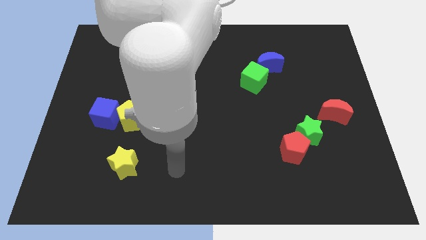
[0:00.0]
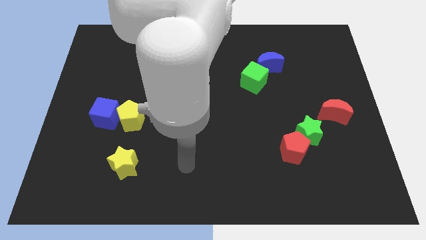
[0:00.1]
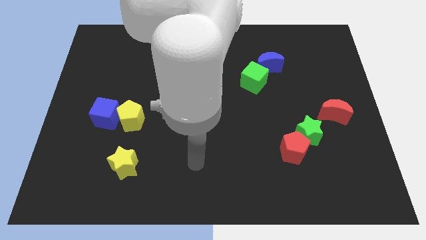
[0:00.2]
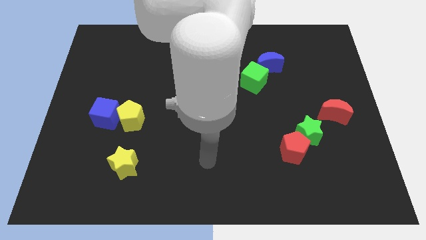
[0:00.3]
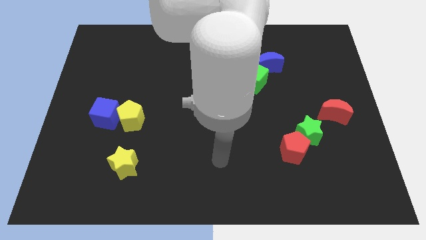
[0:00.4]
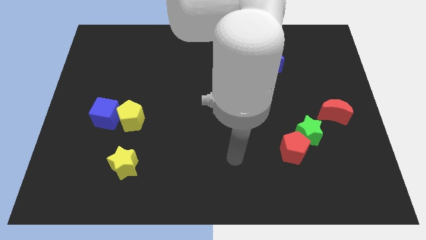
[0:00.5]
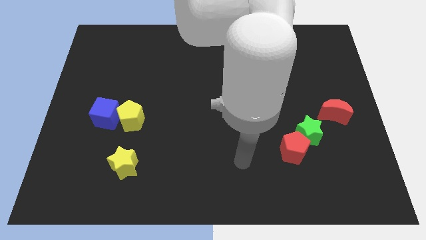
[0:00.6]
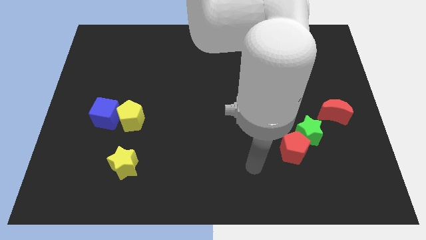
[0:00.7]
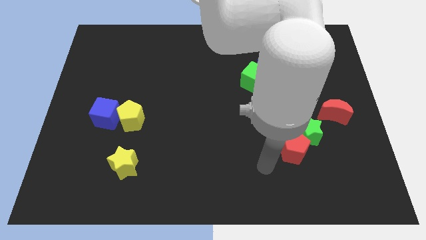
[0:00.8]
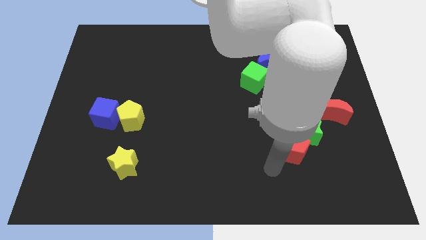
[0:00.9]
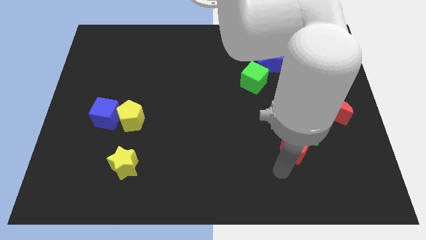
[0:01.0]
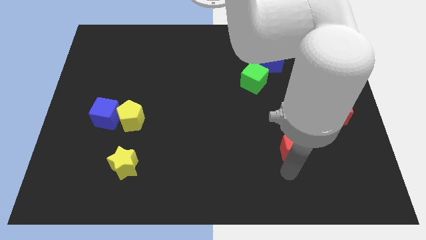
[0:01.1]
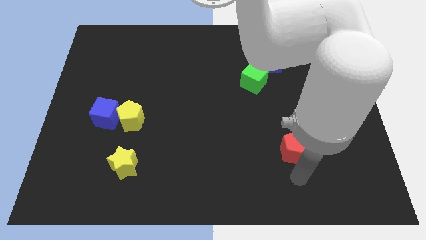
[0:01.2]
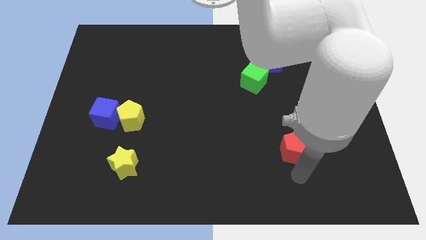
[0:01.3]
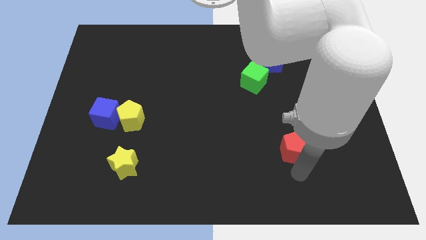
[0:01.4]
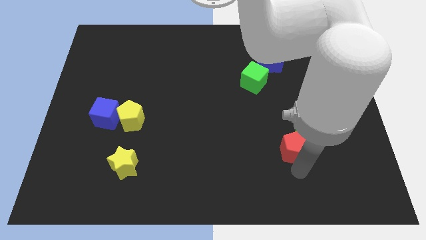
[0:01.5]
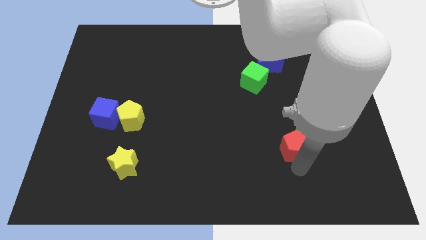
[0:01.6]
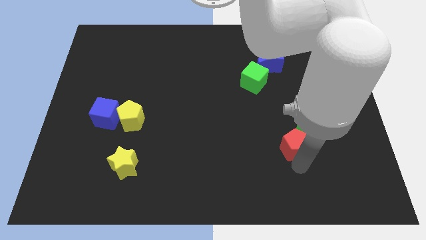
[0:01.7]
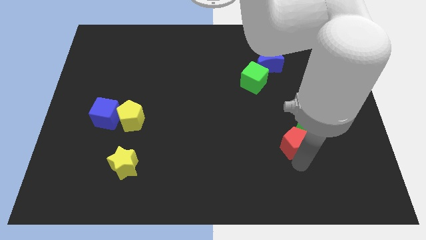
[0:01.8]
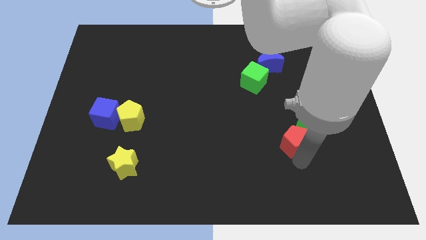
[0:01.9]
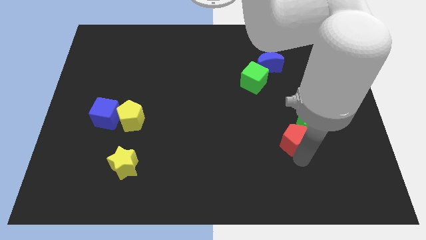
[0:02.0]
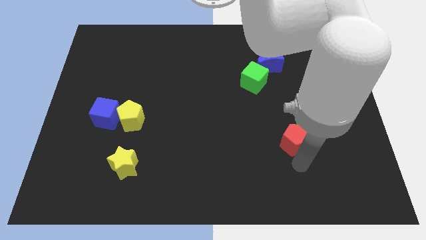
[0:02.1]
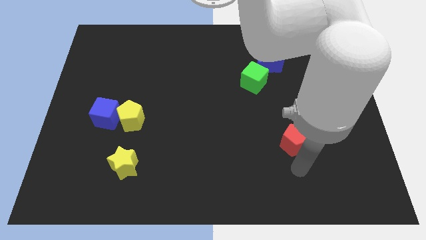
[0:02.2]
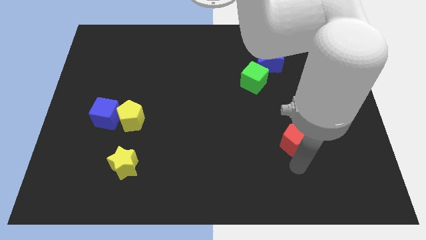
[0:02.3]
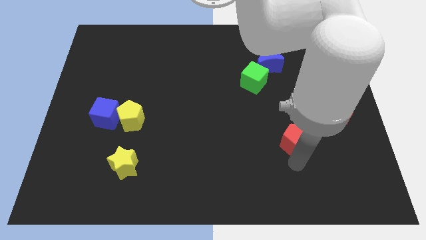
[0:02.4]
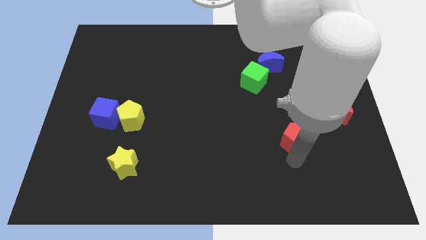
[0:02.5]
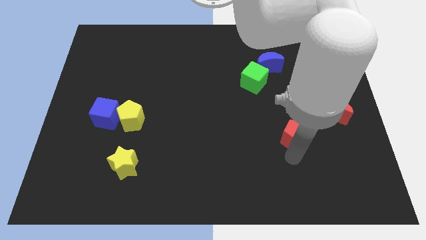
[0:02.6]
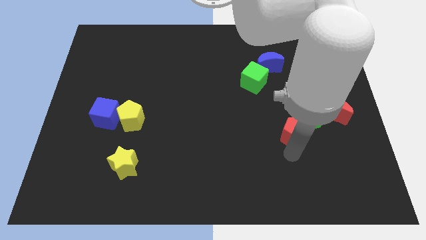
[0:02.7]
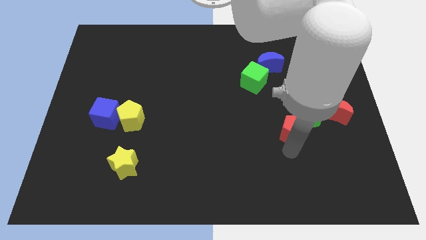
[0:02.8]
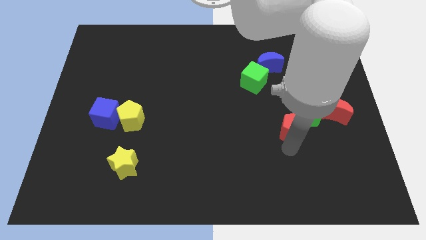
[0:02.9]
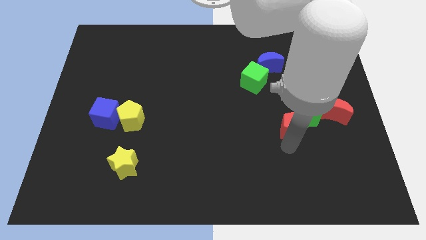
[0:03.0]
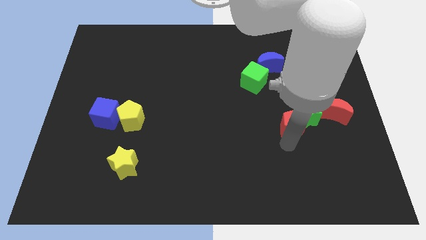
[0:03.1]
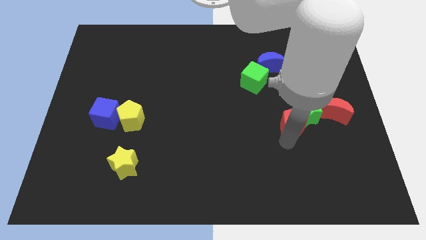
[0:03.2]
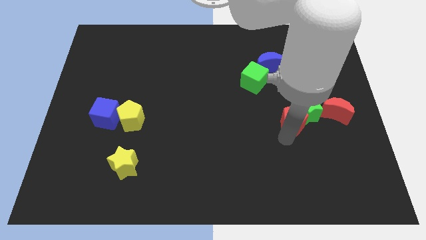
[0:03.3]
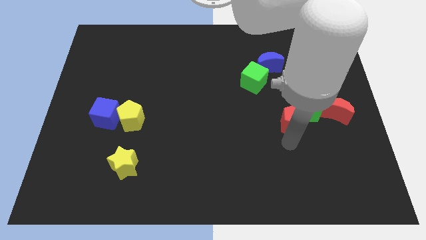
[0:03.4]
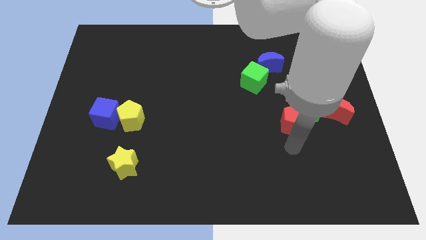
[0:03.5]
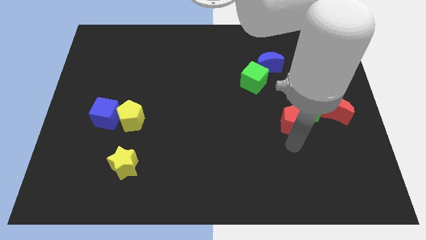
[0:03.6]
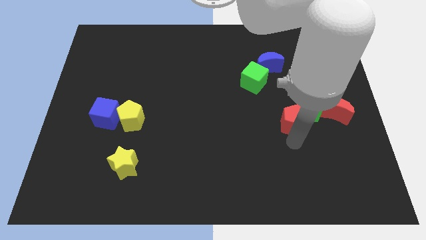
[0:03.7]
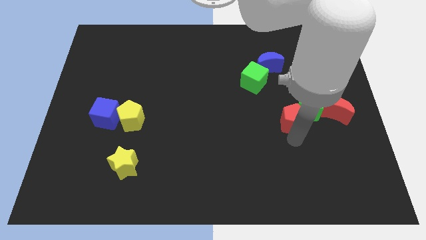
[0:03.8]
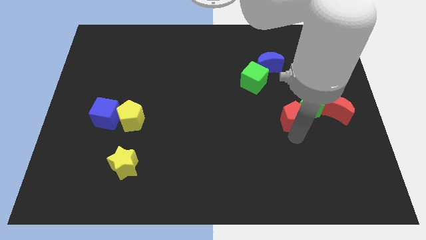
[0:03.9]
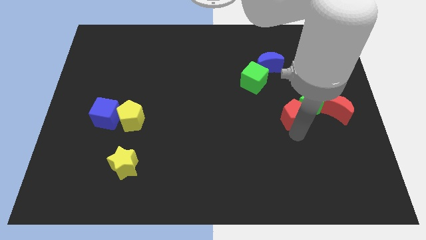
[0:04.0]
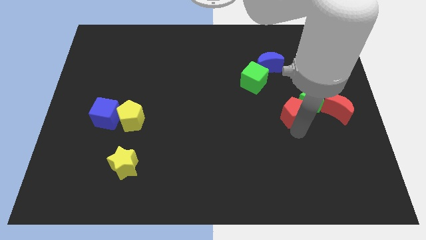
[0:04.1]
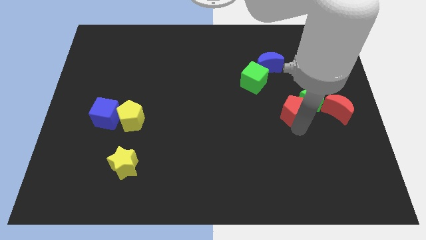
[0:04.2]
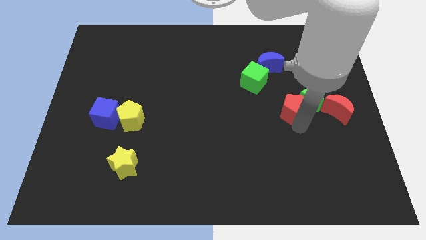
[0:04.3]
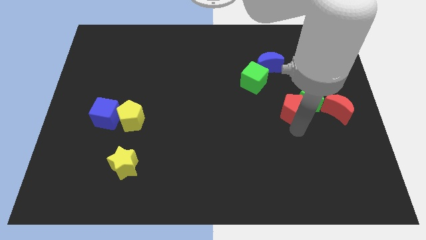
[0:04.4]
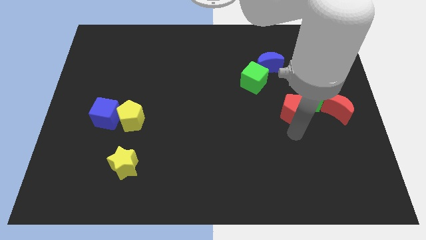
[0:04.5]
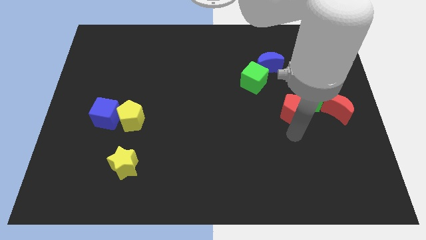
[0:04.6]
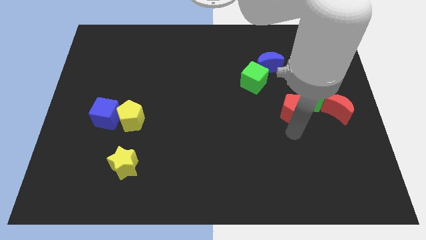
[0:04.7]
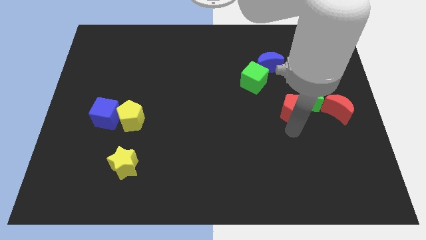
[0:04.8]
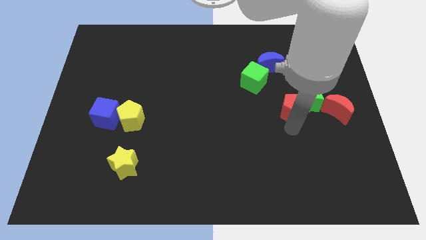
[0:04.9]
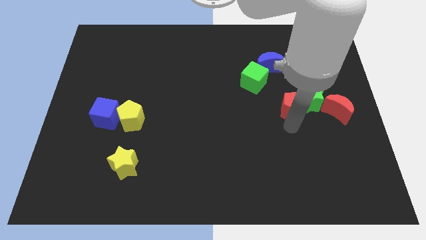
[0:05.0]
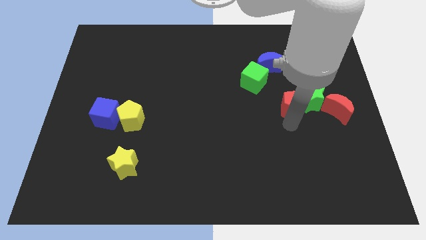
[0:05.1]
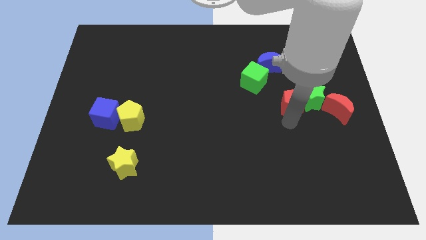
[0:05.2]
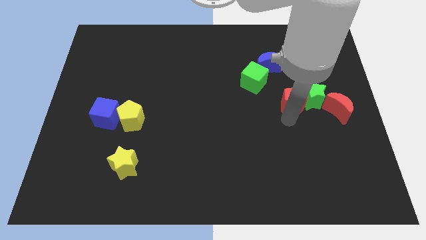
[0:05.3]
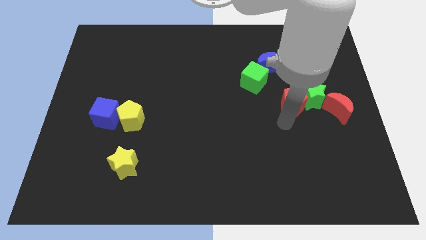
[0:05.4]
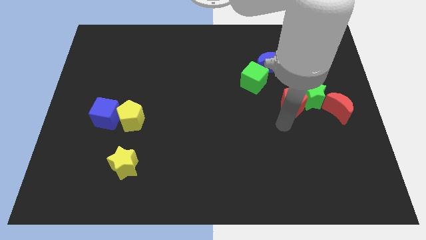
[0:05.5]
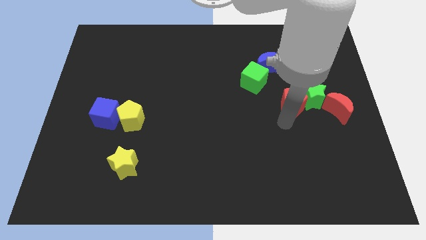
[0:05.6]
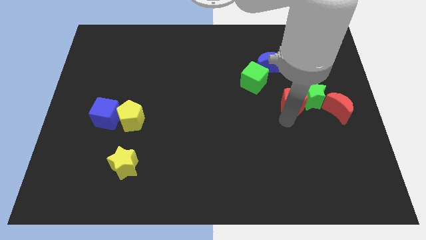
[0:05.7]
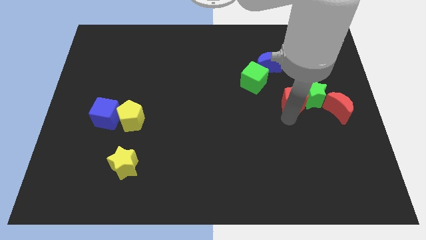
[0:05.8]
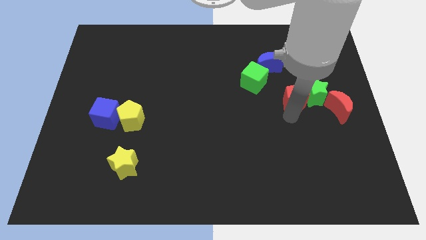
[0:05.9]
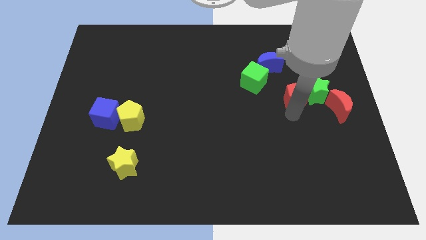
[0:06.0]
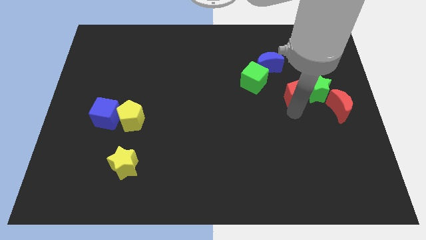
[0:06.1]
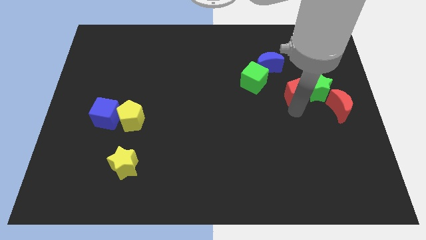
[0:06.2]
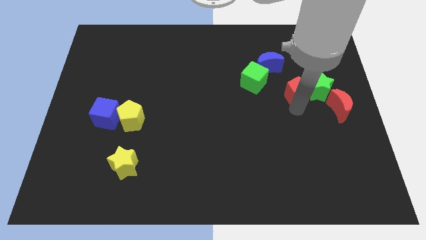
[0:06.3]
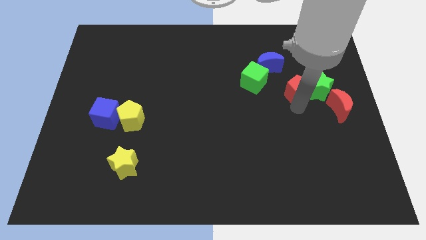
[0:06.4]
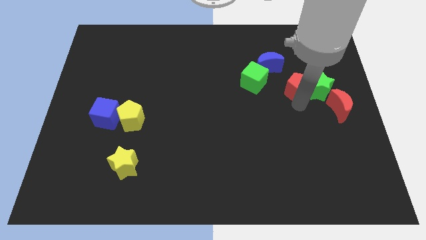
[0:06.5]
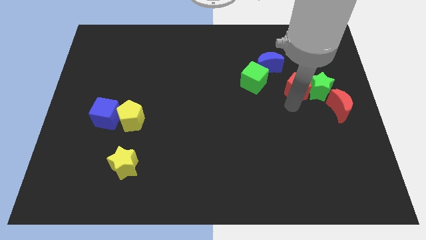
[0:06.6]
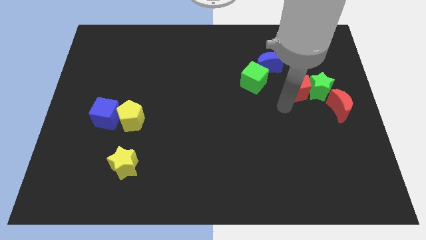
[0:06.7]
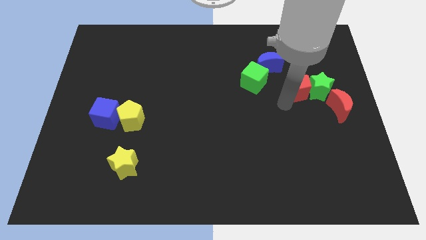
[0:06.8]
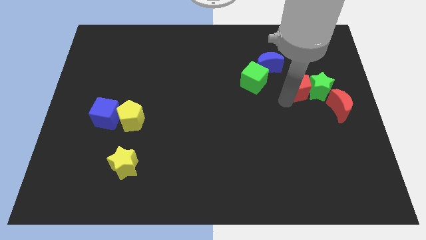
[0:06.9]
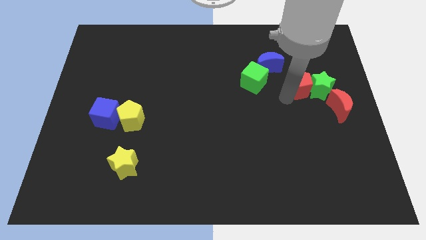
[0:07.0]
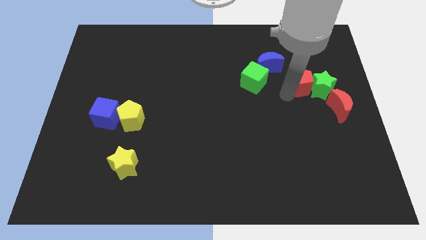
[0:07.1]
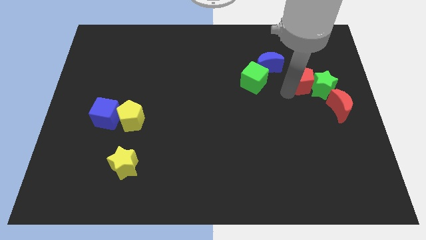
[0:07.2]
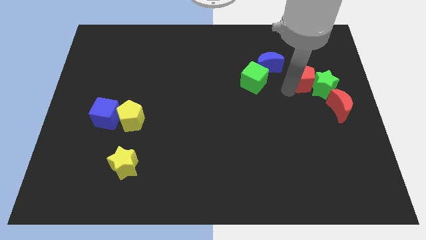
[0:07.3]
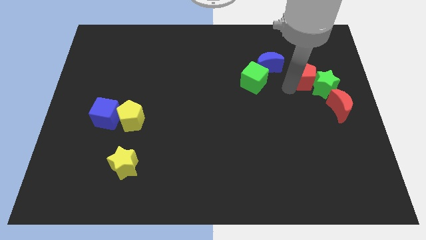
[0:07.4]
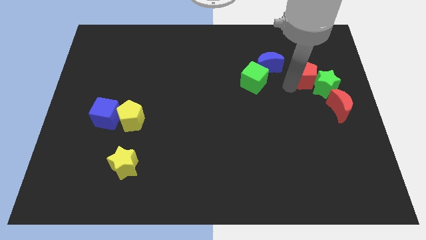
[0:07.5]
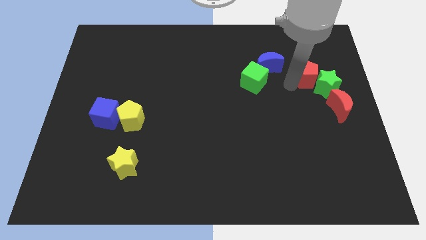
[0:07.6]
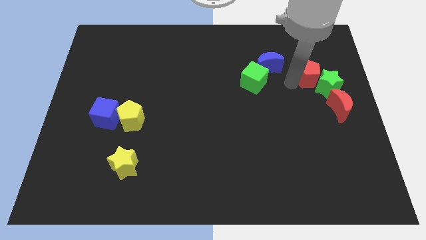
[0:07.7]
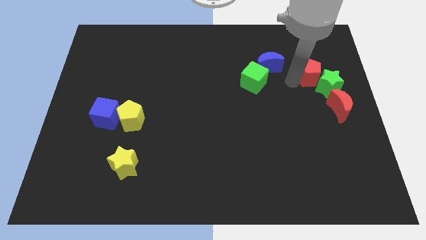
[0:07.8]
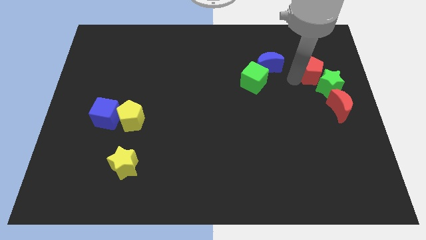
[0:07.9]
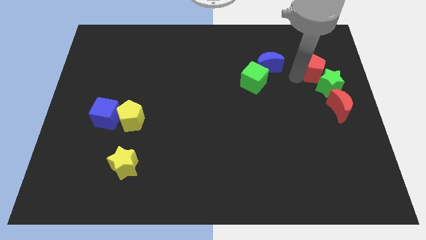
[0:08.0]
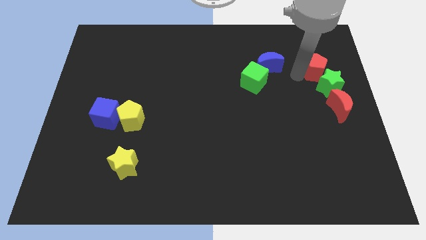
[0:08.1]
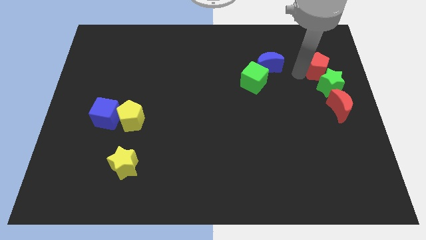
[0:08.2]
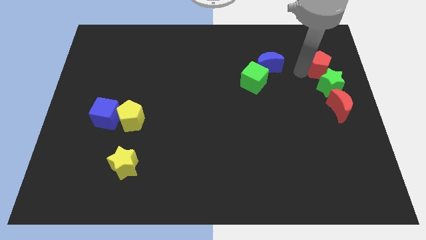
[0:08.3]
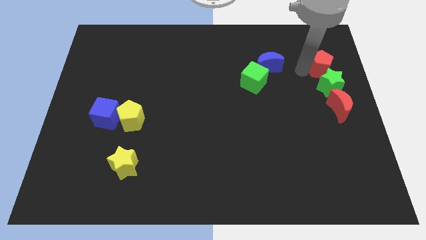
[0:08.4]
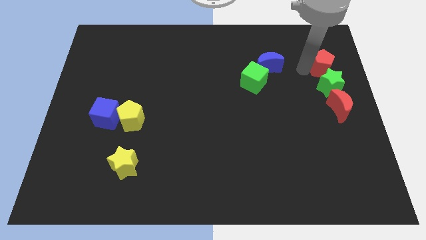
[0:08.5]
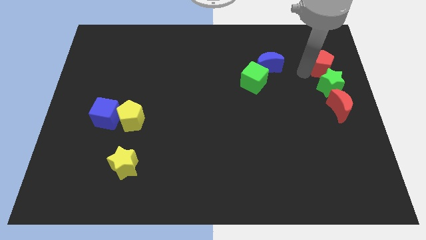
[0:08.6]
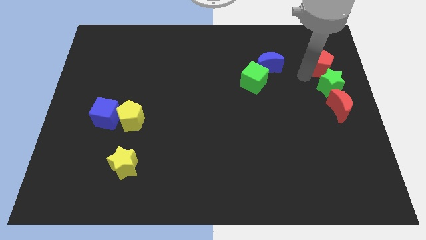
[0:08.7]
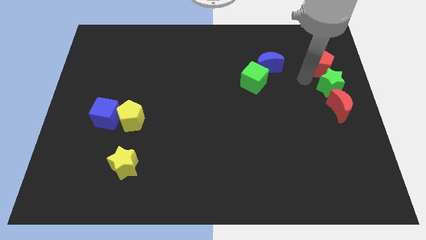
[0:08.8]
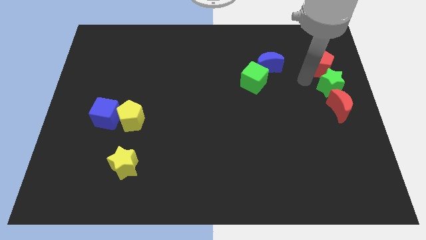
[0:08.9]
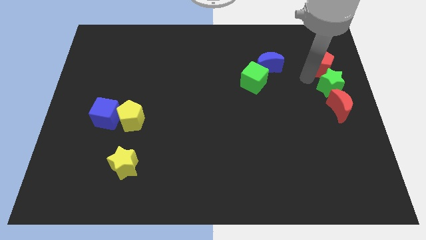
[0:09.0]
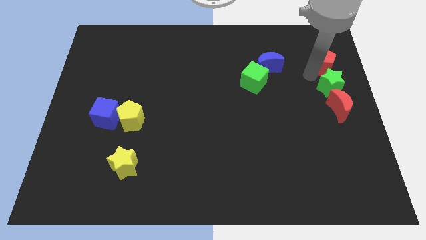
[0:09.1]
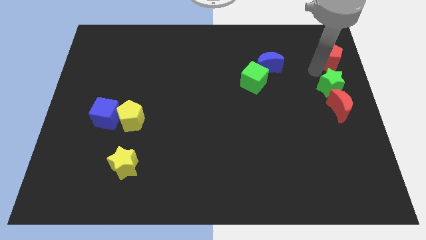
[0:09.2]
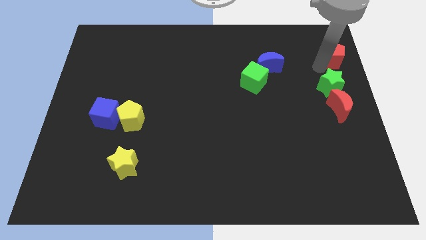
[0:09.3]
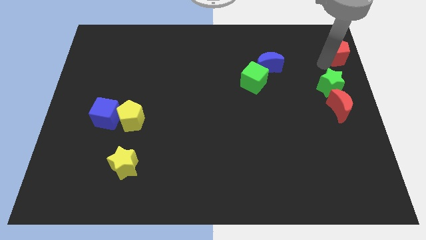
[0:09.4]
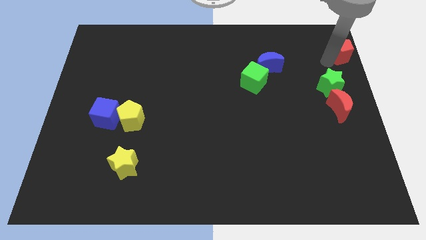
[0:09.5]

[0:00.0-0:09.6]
move the red pentagon to the top right
